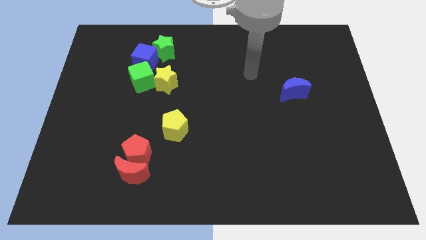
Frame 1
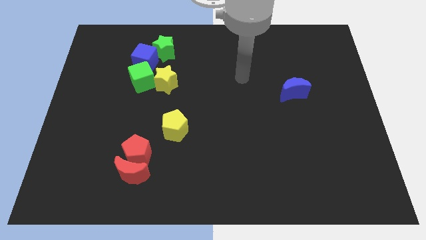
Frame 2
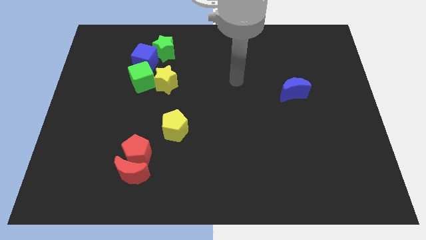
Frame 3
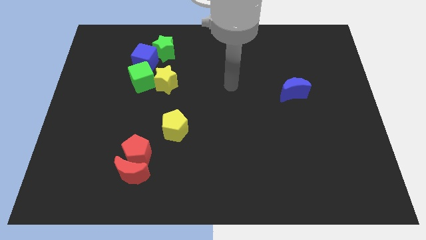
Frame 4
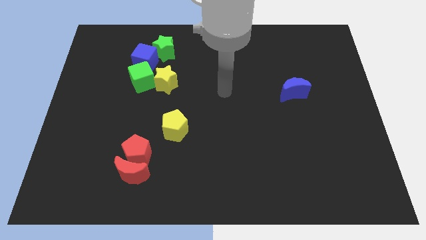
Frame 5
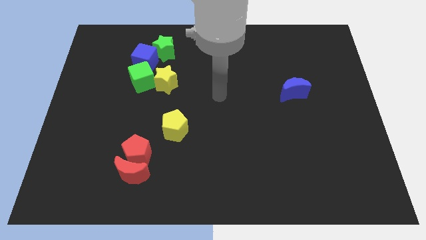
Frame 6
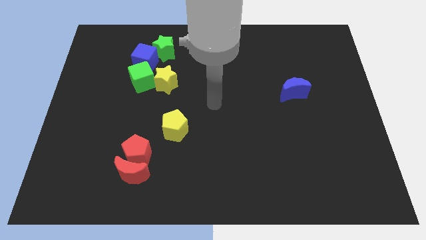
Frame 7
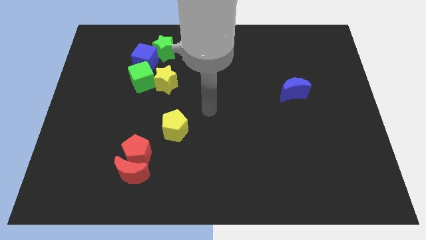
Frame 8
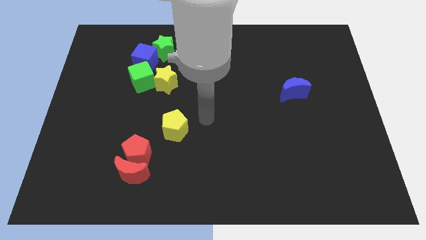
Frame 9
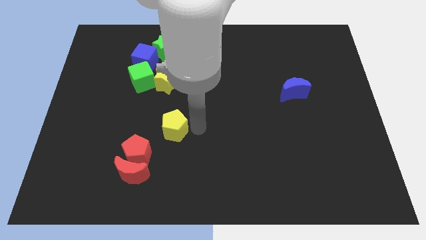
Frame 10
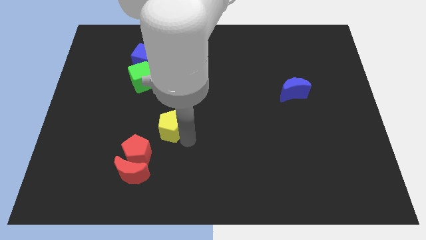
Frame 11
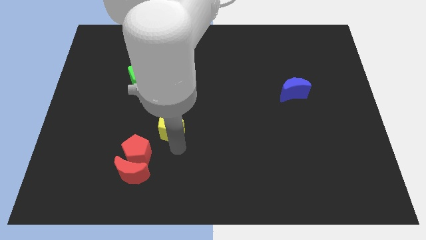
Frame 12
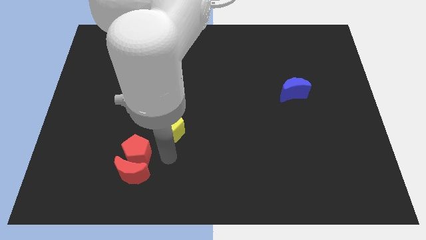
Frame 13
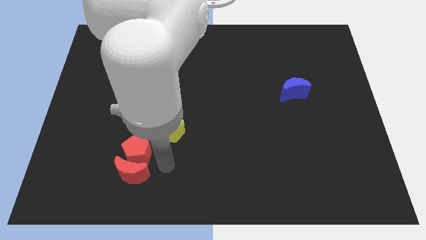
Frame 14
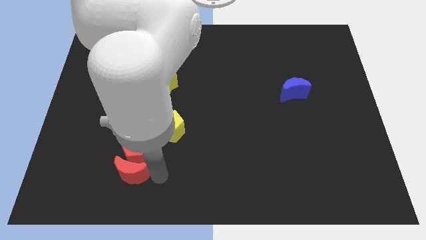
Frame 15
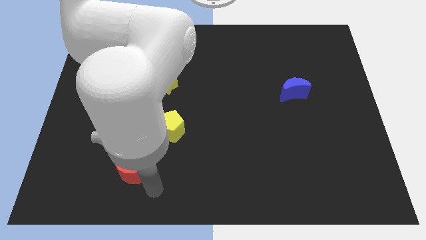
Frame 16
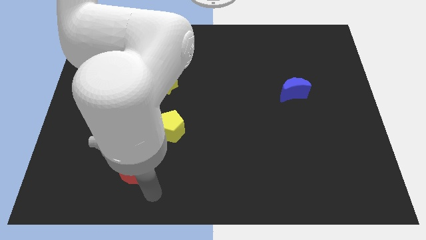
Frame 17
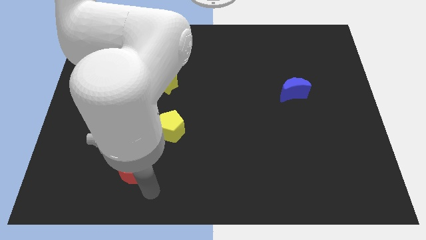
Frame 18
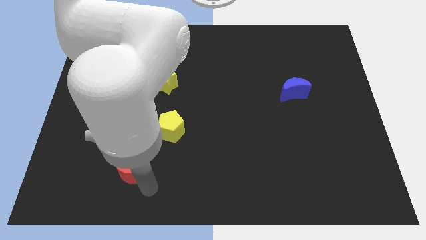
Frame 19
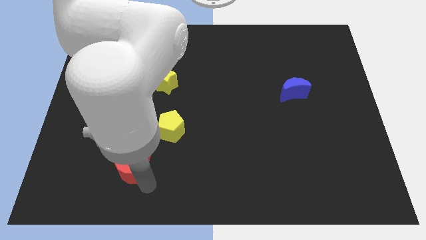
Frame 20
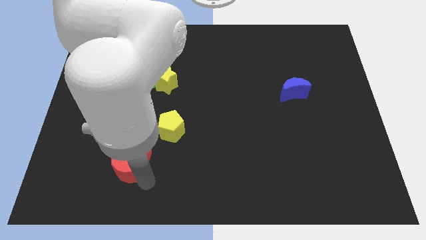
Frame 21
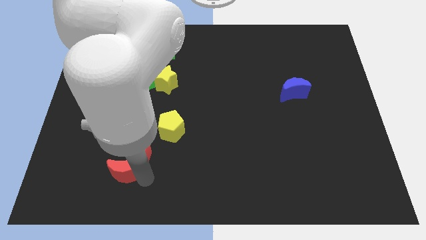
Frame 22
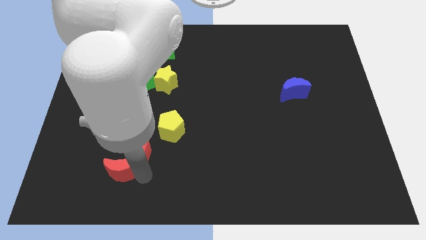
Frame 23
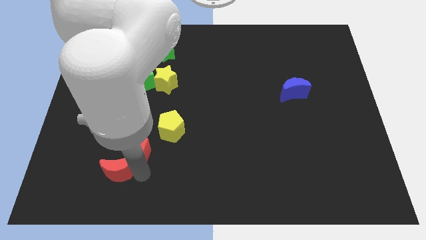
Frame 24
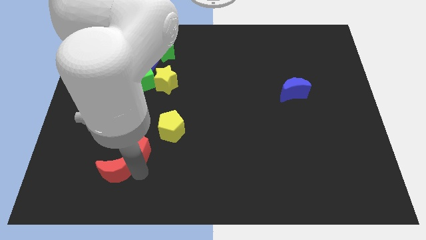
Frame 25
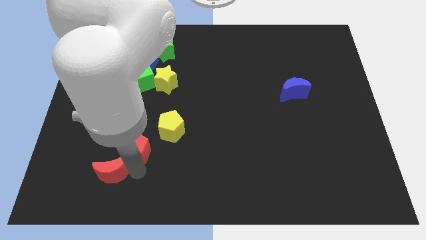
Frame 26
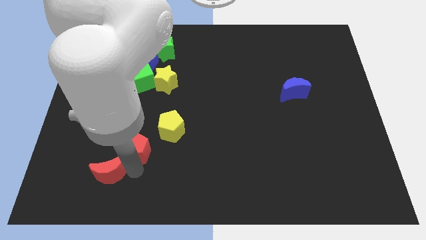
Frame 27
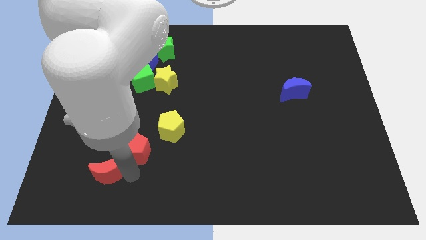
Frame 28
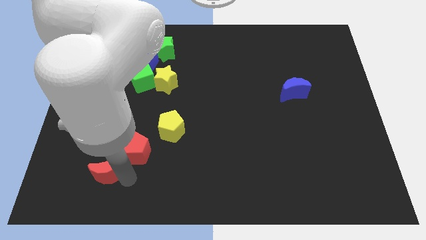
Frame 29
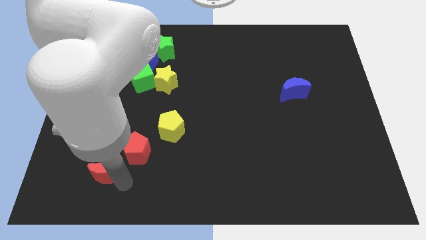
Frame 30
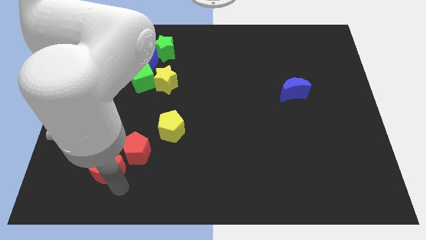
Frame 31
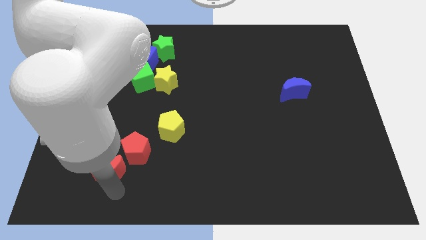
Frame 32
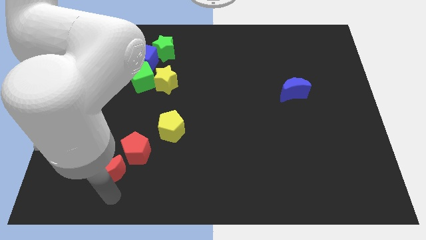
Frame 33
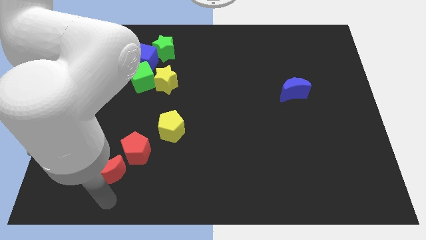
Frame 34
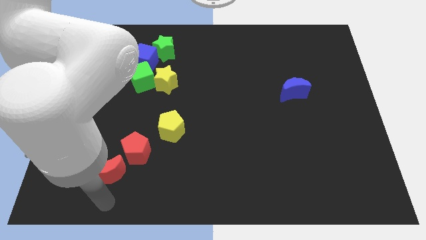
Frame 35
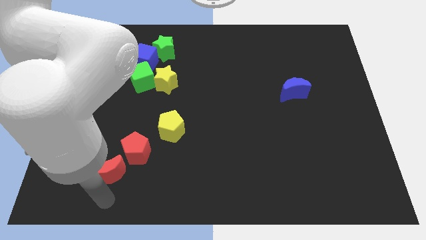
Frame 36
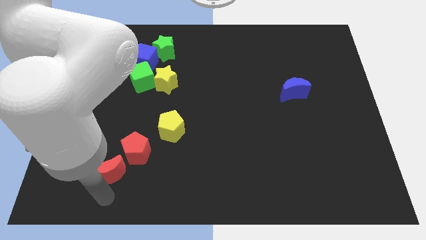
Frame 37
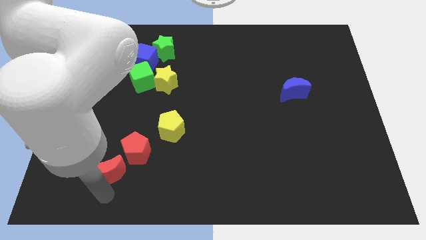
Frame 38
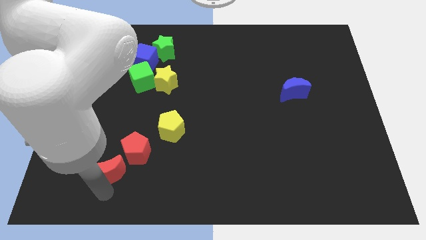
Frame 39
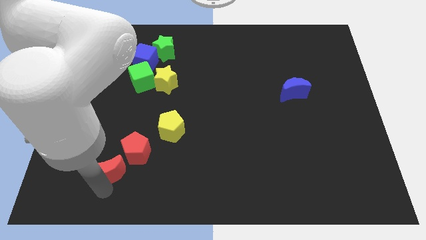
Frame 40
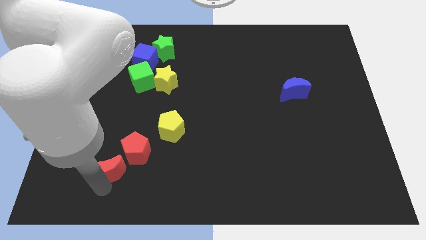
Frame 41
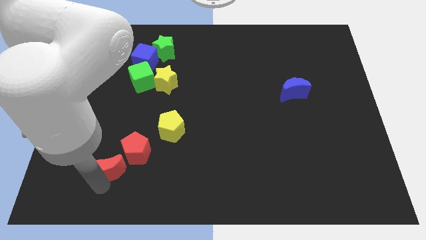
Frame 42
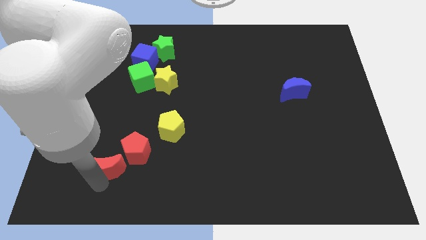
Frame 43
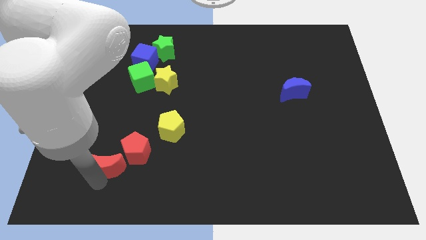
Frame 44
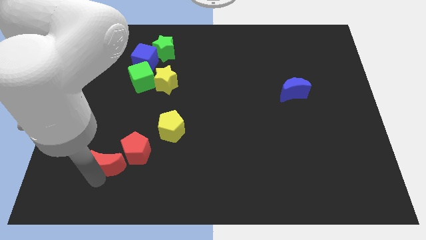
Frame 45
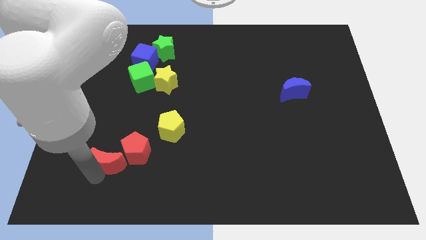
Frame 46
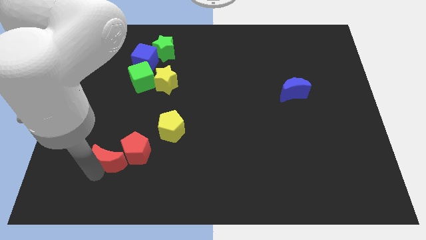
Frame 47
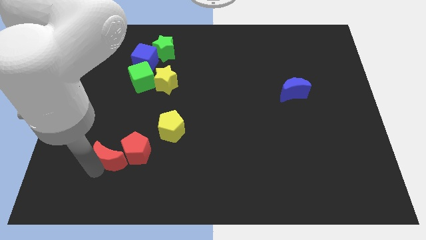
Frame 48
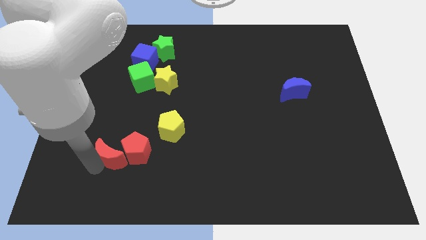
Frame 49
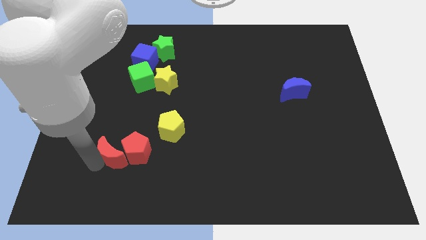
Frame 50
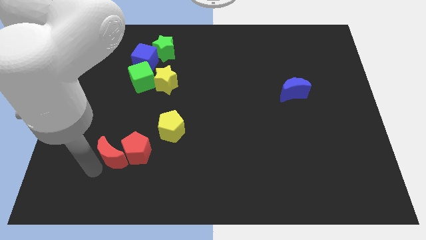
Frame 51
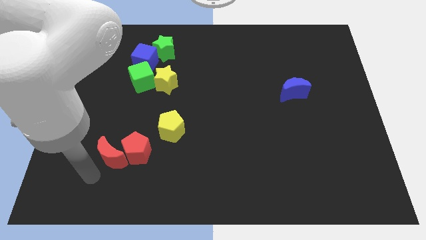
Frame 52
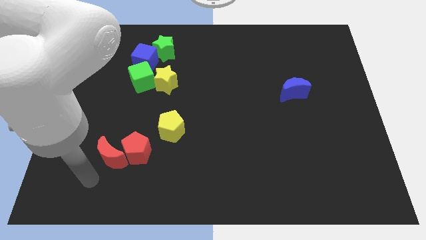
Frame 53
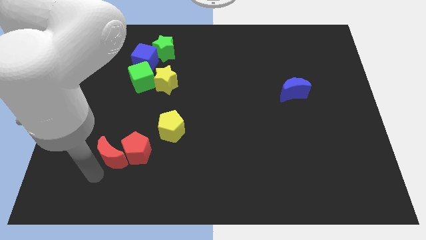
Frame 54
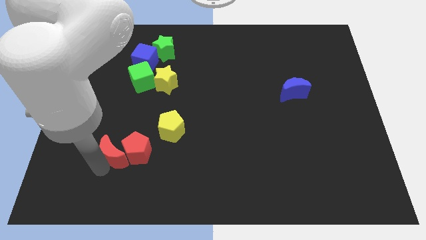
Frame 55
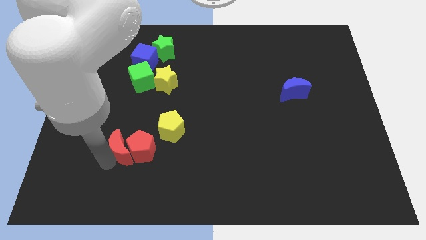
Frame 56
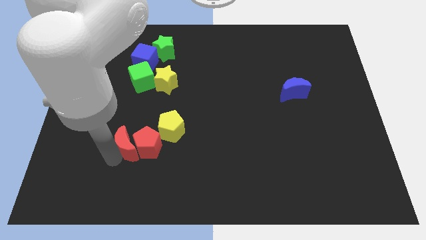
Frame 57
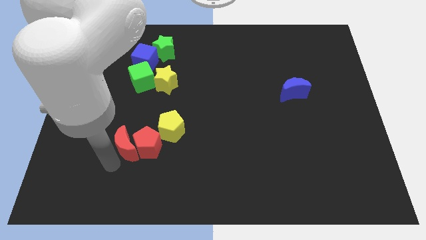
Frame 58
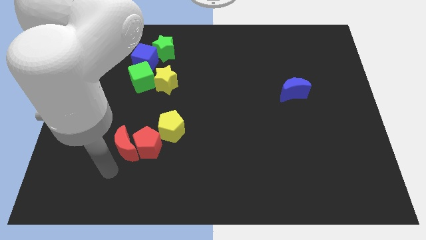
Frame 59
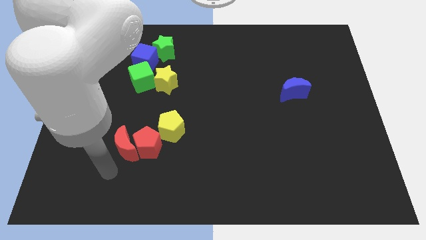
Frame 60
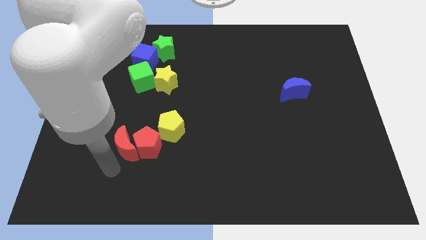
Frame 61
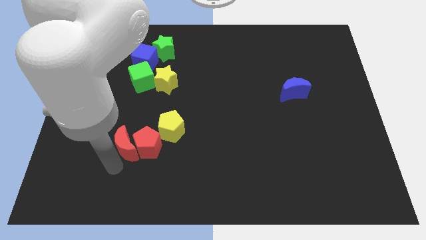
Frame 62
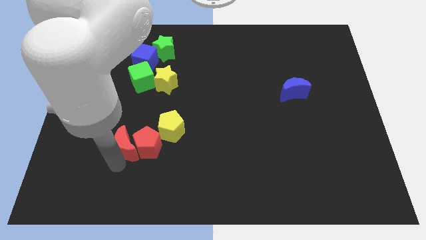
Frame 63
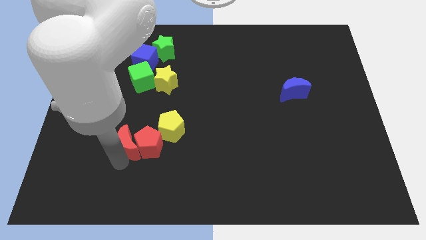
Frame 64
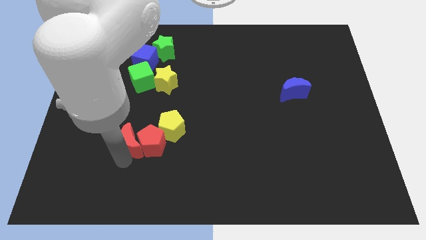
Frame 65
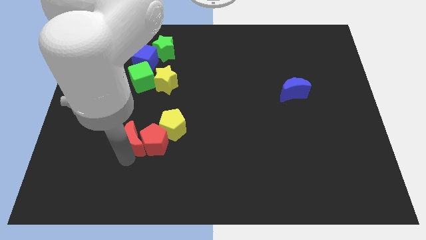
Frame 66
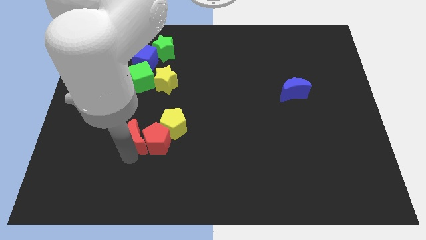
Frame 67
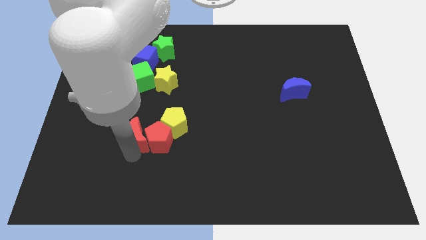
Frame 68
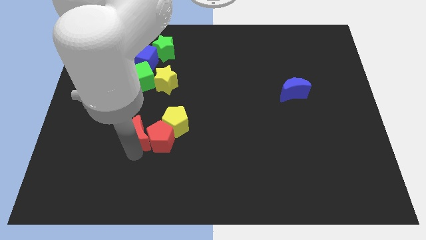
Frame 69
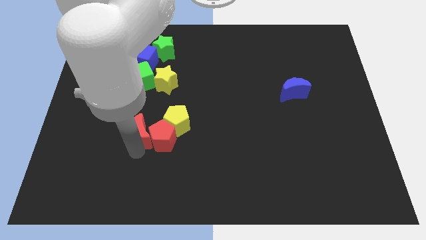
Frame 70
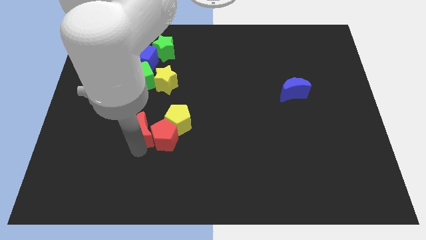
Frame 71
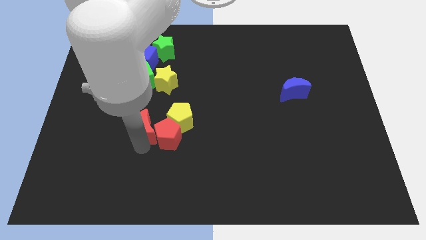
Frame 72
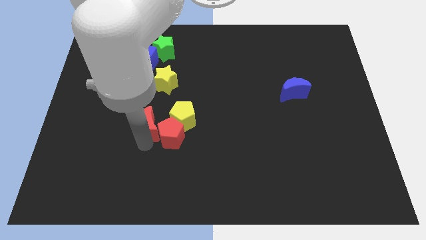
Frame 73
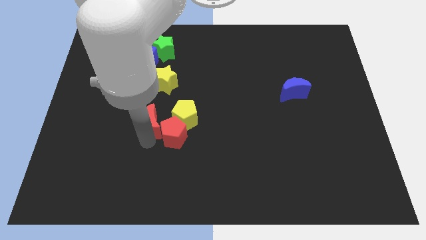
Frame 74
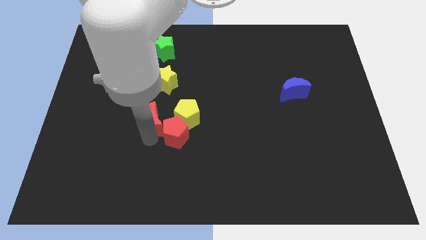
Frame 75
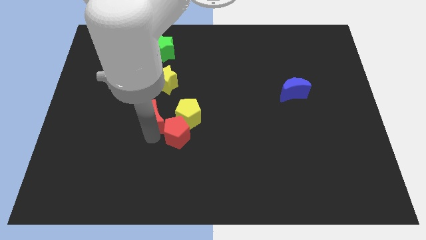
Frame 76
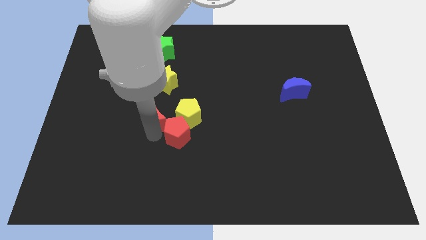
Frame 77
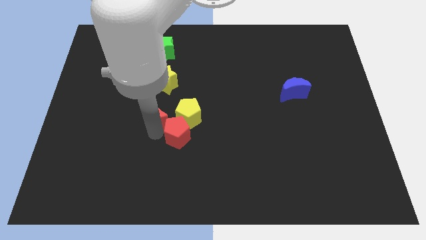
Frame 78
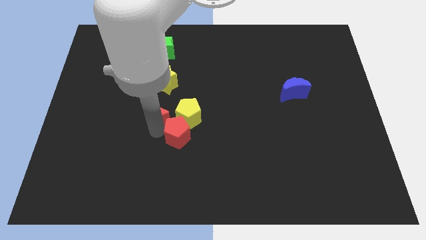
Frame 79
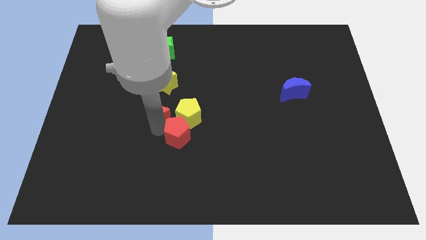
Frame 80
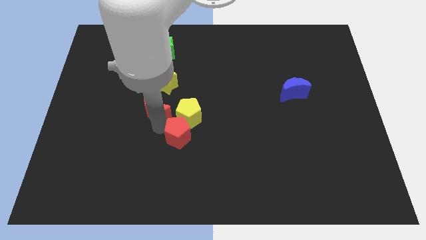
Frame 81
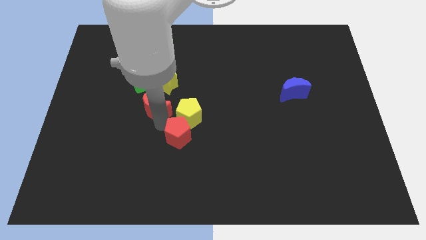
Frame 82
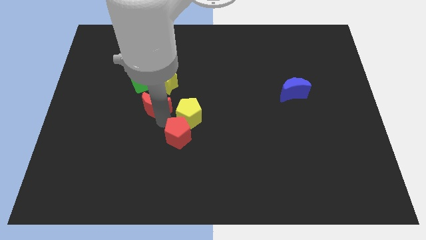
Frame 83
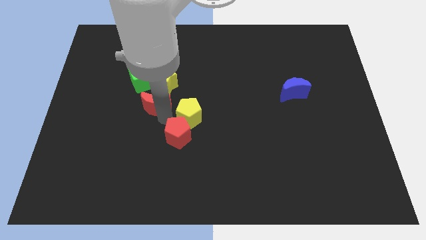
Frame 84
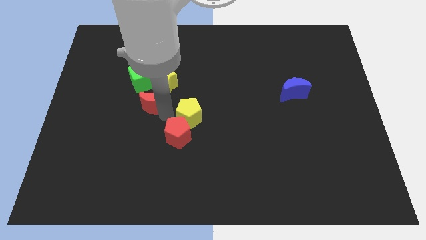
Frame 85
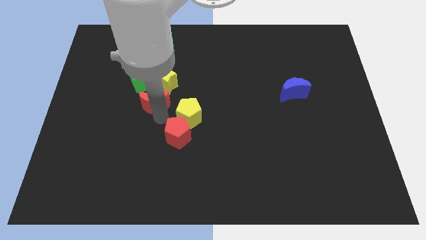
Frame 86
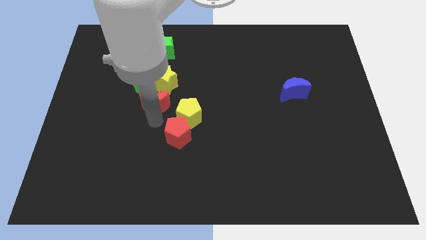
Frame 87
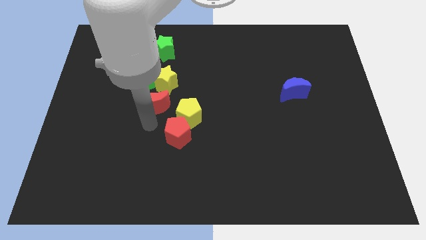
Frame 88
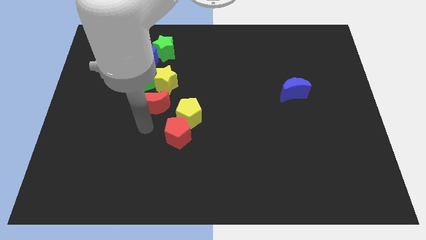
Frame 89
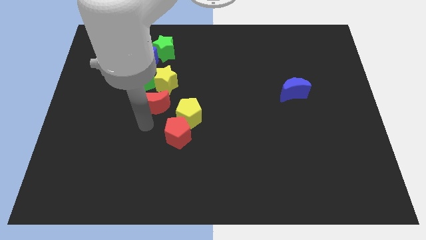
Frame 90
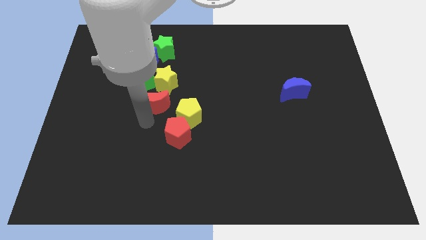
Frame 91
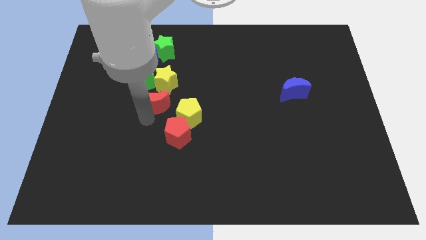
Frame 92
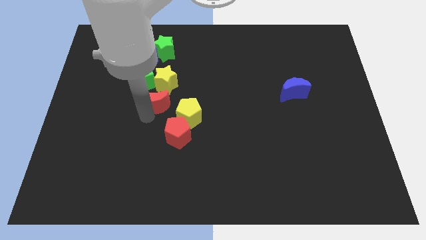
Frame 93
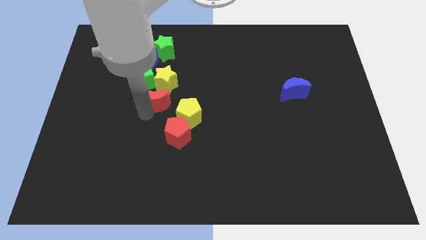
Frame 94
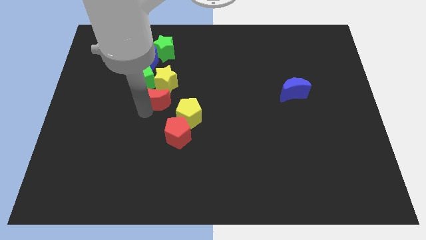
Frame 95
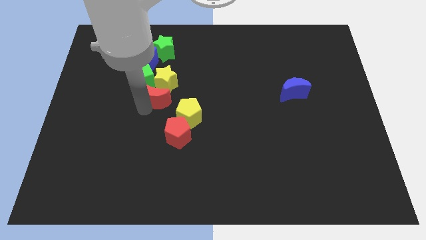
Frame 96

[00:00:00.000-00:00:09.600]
push the red moon to the yellow star
